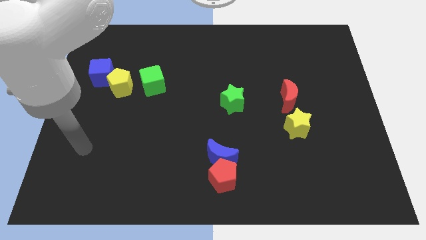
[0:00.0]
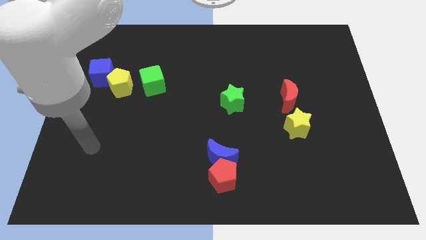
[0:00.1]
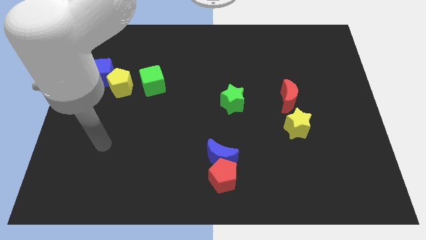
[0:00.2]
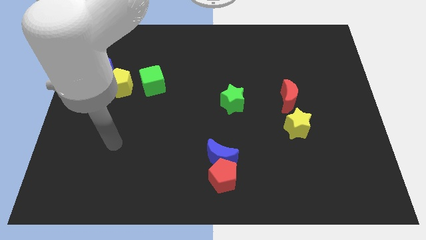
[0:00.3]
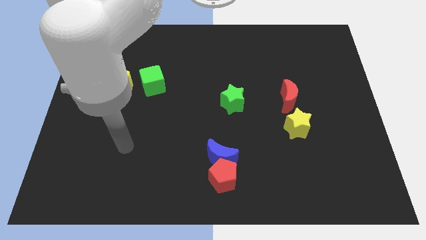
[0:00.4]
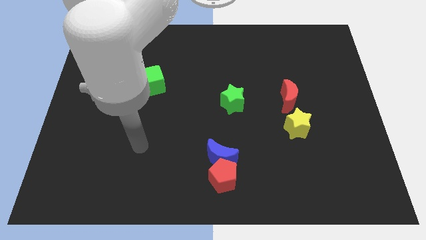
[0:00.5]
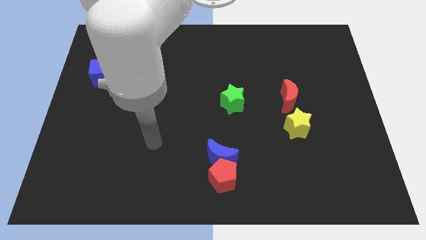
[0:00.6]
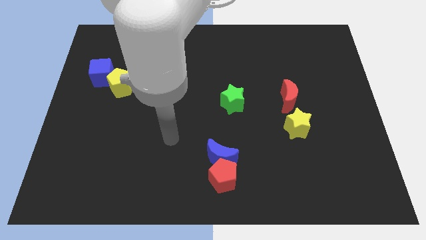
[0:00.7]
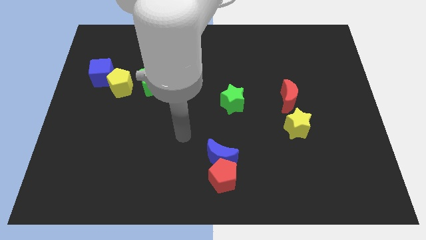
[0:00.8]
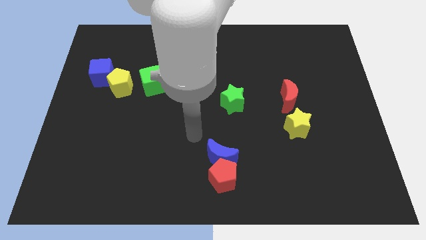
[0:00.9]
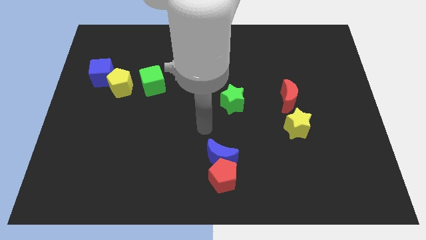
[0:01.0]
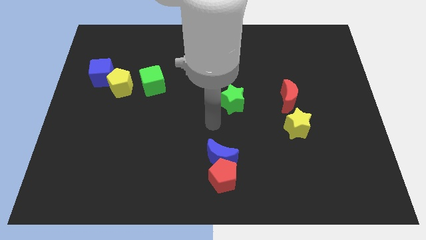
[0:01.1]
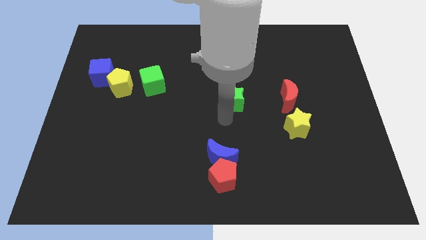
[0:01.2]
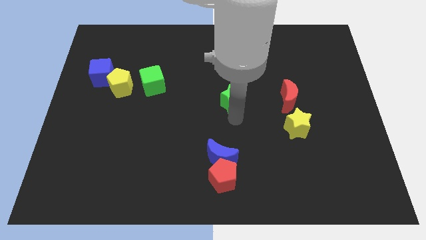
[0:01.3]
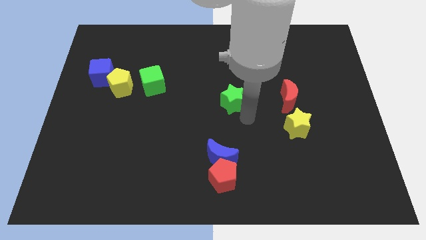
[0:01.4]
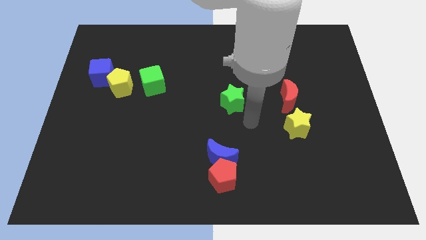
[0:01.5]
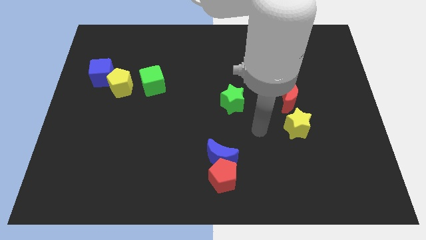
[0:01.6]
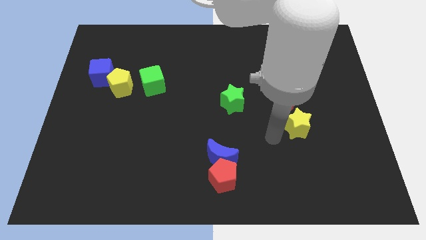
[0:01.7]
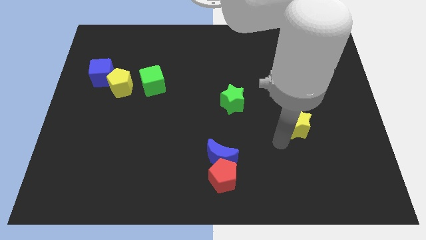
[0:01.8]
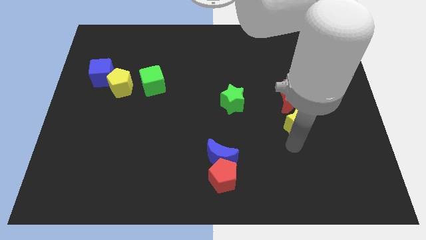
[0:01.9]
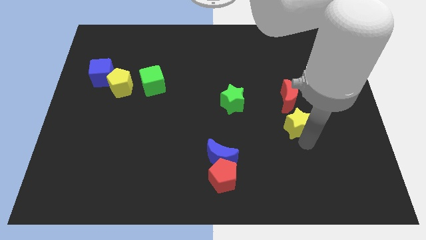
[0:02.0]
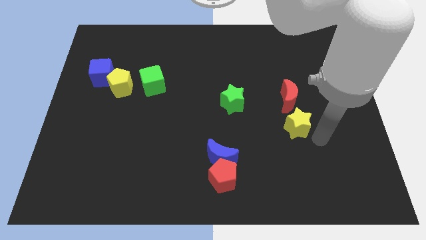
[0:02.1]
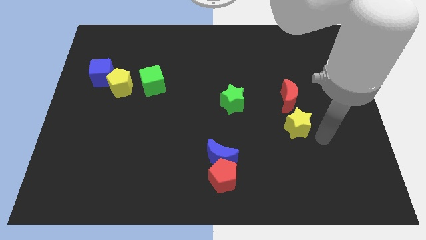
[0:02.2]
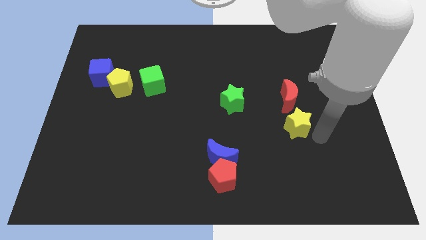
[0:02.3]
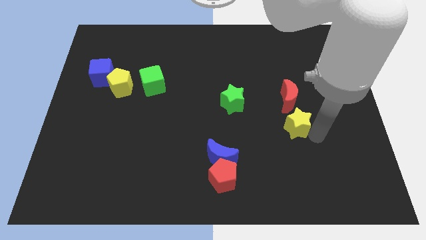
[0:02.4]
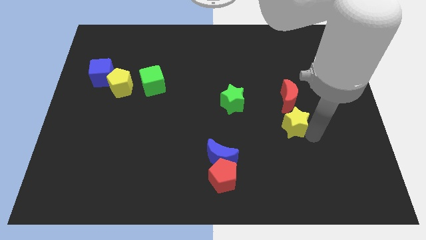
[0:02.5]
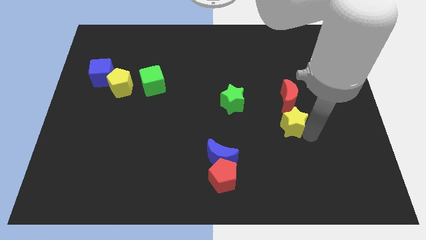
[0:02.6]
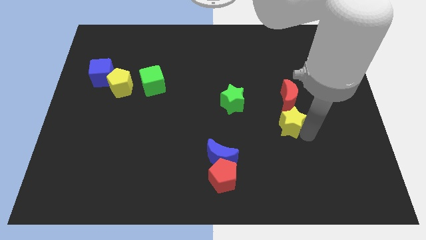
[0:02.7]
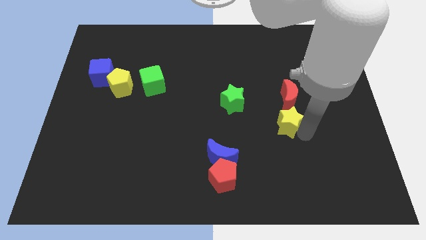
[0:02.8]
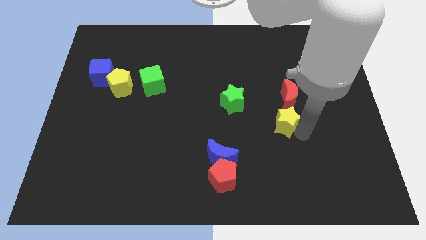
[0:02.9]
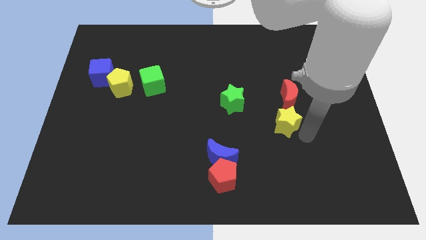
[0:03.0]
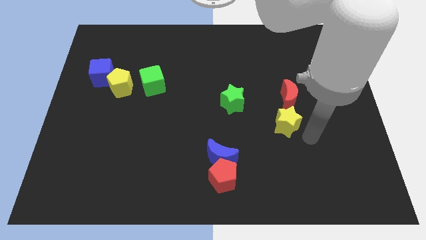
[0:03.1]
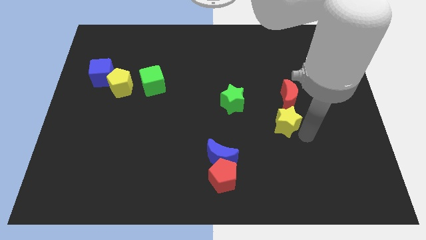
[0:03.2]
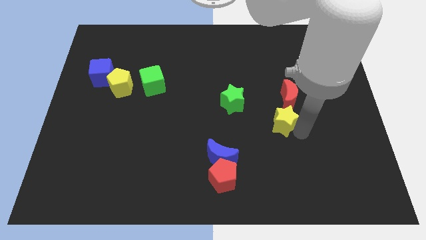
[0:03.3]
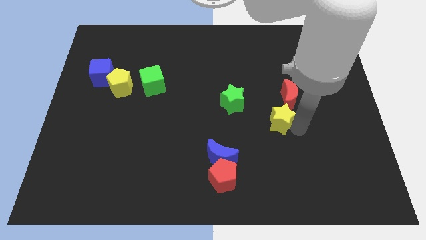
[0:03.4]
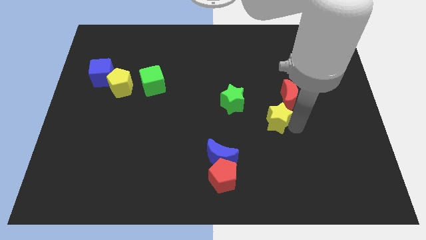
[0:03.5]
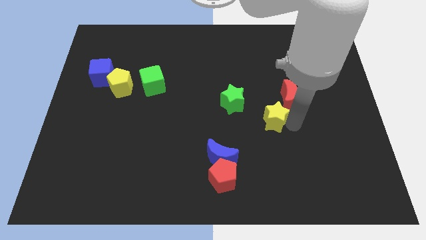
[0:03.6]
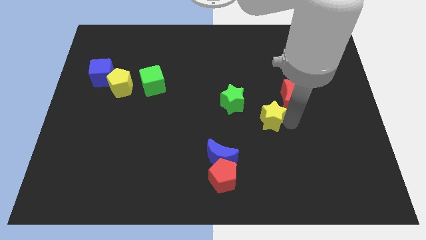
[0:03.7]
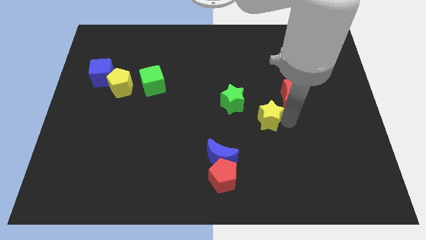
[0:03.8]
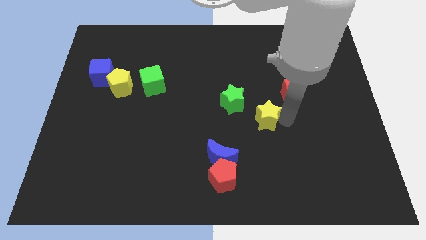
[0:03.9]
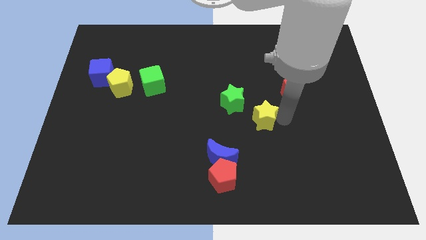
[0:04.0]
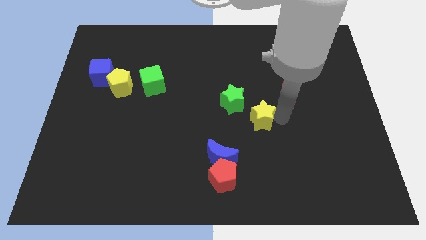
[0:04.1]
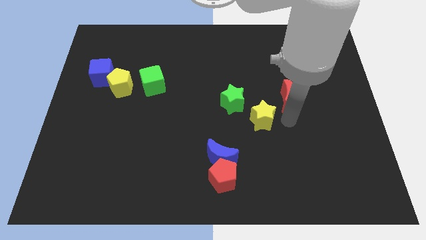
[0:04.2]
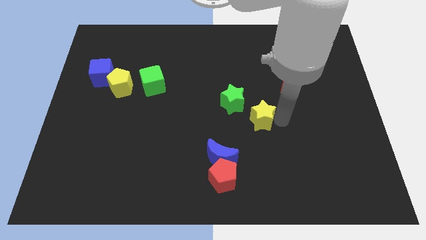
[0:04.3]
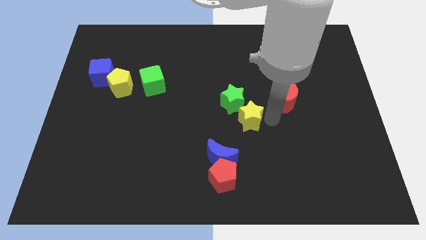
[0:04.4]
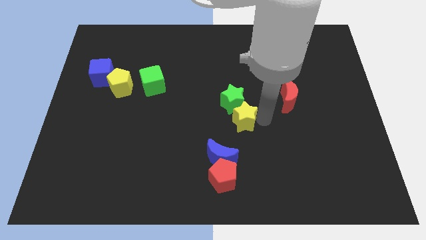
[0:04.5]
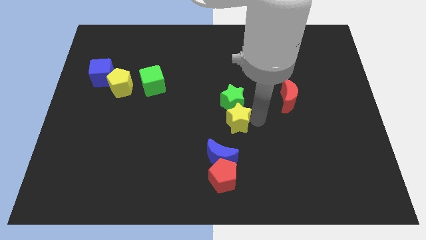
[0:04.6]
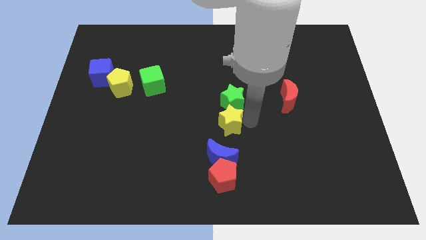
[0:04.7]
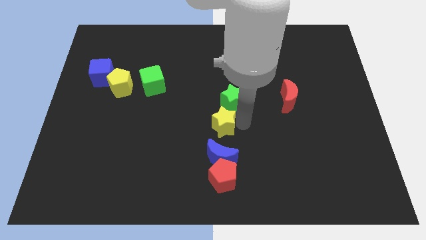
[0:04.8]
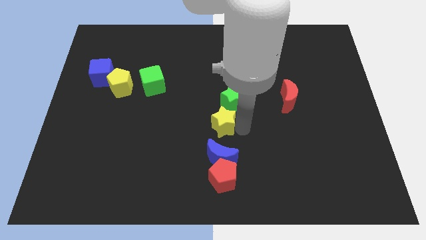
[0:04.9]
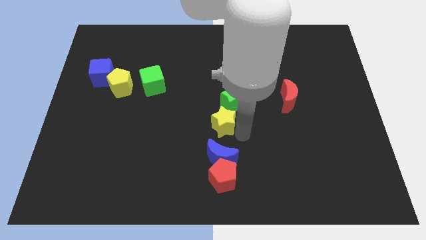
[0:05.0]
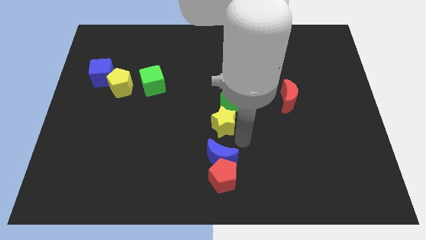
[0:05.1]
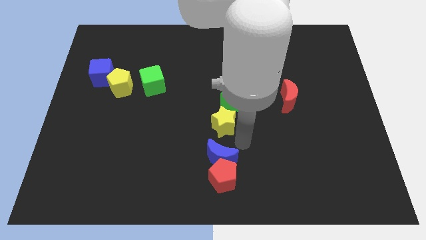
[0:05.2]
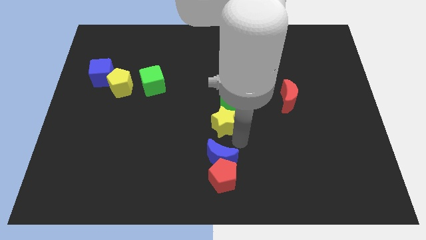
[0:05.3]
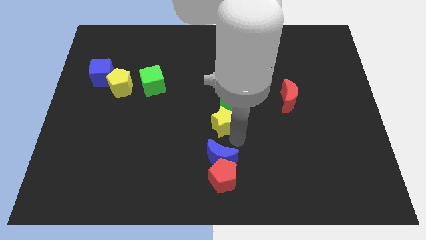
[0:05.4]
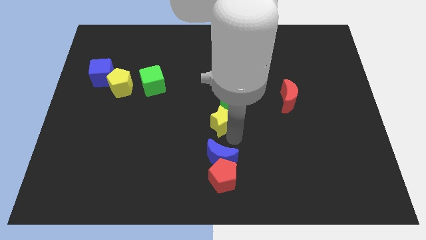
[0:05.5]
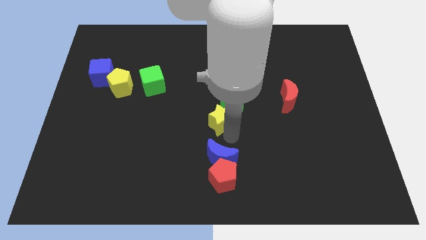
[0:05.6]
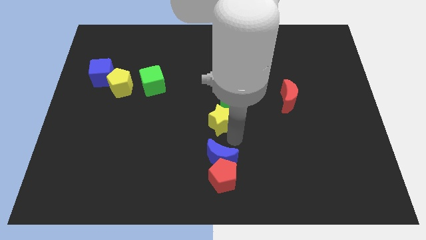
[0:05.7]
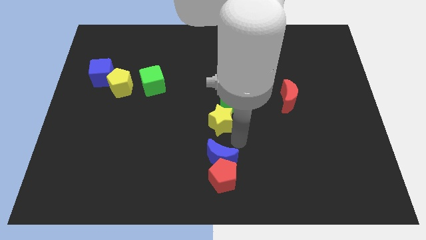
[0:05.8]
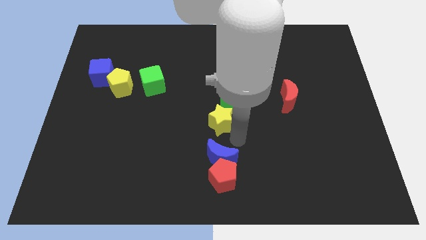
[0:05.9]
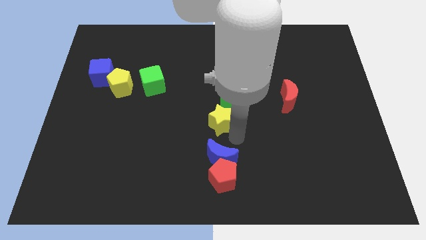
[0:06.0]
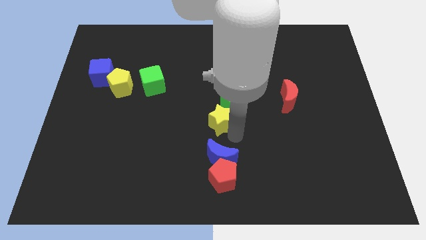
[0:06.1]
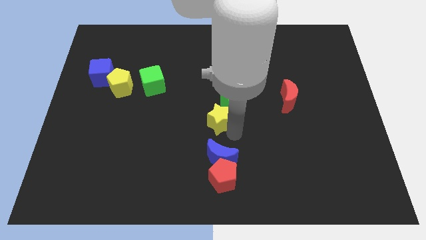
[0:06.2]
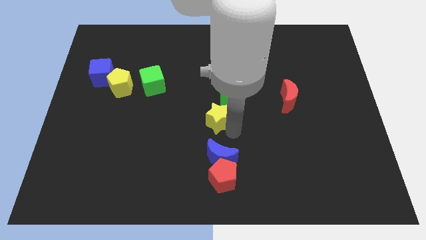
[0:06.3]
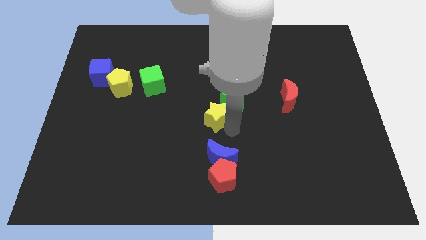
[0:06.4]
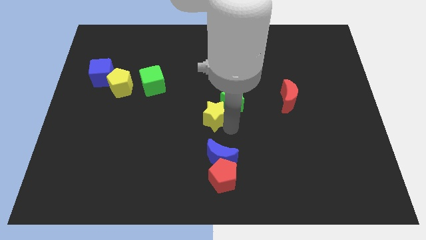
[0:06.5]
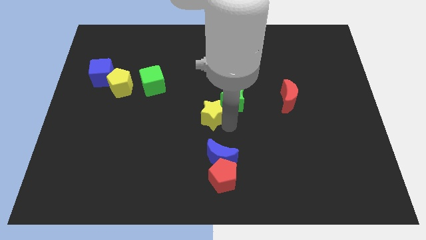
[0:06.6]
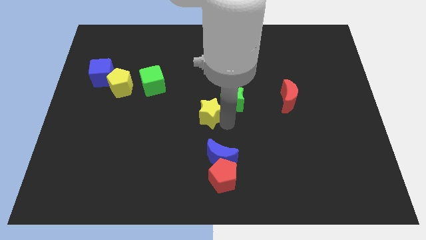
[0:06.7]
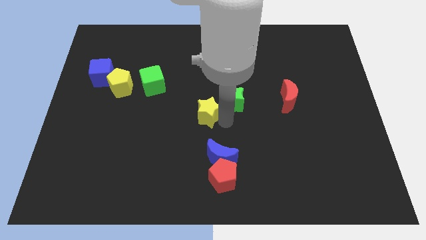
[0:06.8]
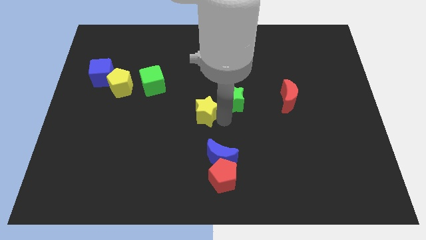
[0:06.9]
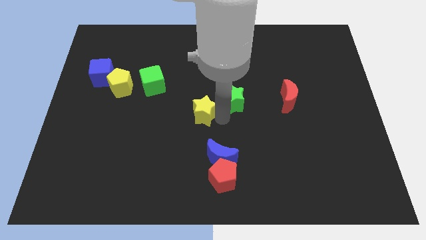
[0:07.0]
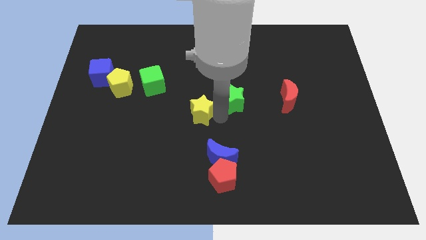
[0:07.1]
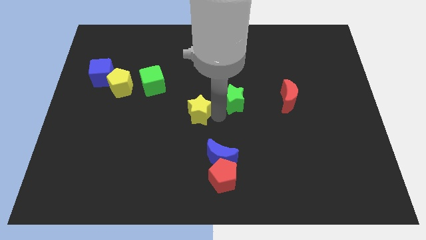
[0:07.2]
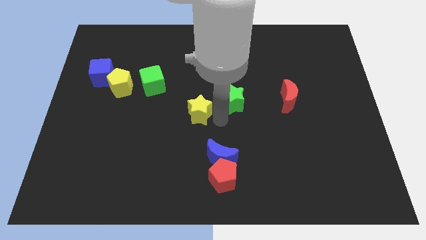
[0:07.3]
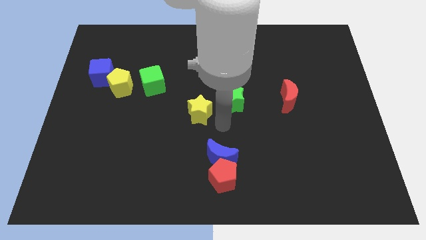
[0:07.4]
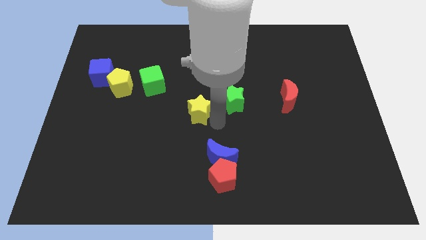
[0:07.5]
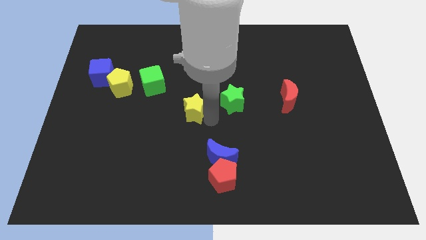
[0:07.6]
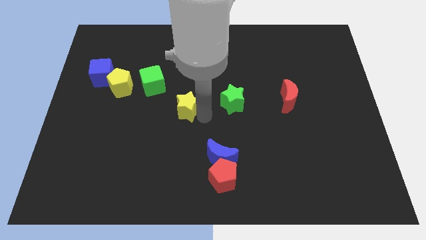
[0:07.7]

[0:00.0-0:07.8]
move the yellow star to the bottom right of the green cube
